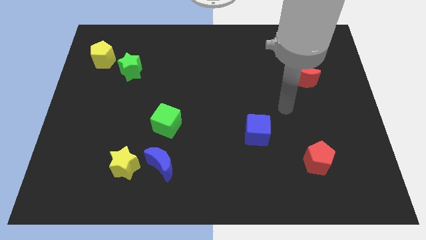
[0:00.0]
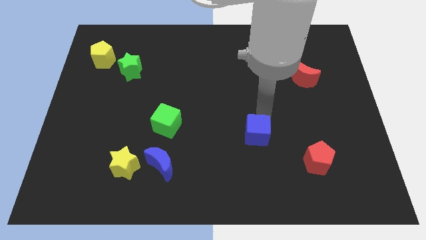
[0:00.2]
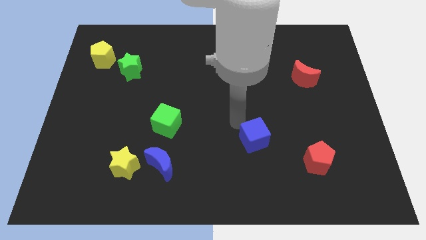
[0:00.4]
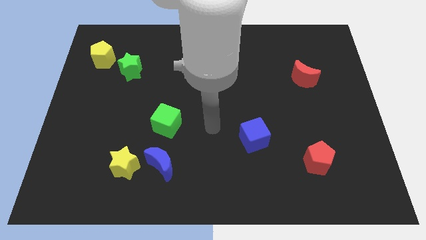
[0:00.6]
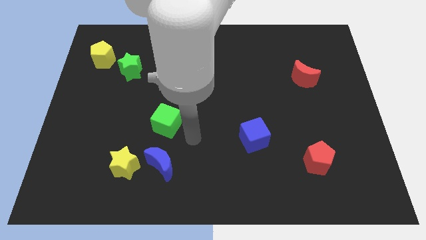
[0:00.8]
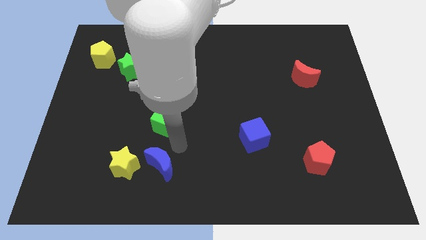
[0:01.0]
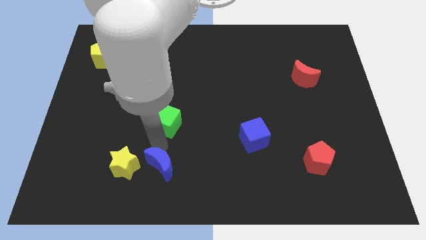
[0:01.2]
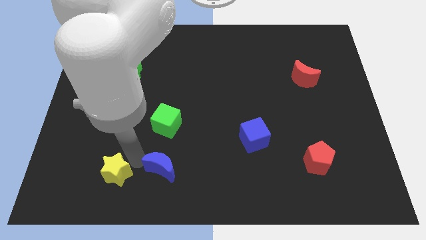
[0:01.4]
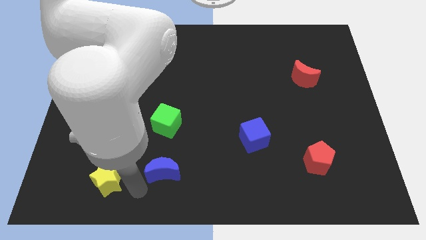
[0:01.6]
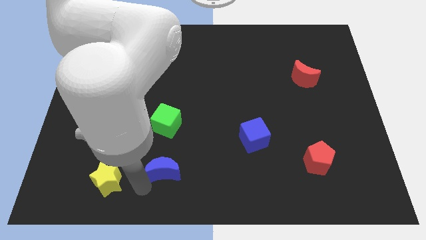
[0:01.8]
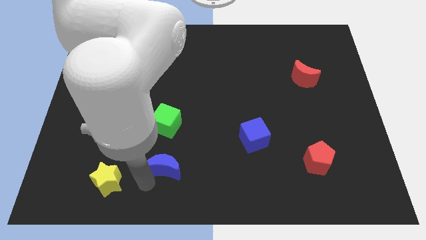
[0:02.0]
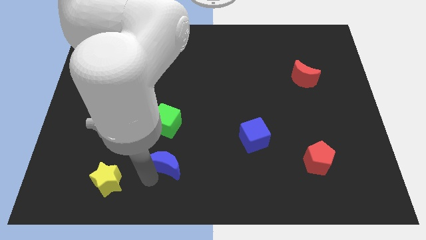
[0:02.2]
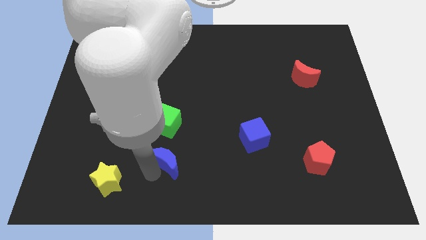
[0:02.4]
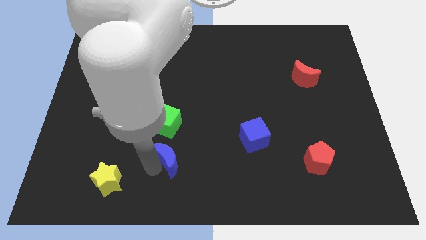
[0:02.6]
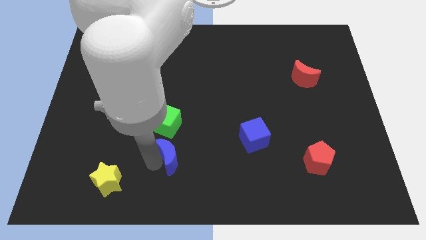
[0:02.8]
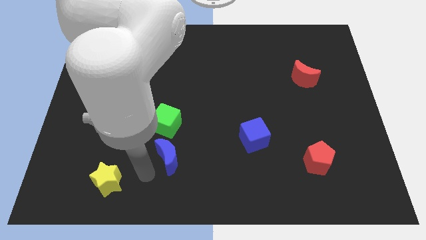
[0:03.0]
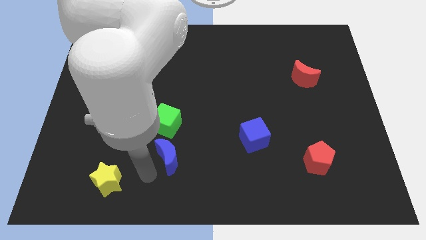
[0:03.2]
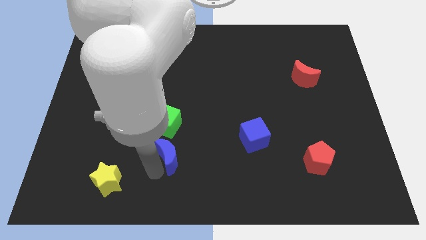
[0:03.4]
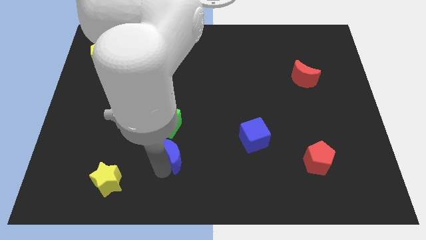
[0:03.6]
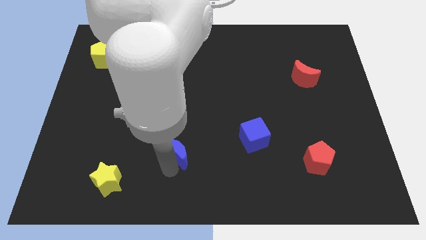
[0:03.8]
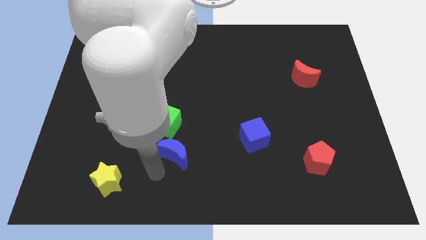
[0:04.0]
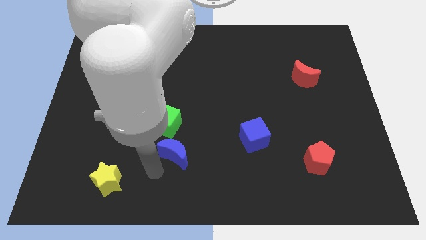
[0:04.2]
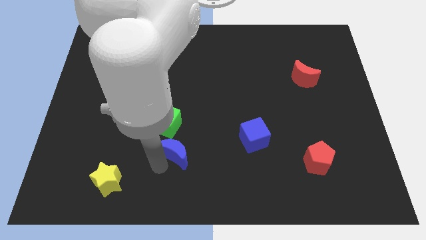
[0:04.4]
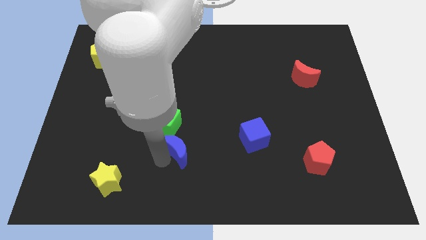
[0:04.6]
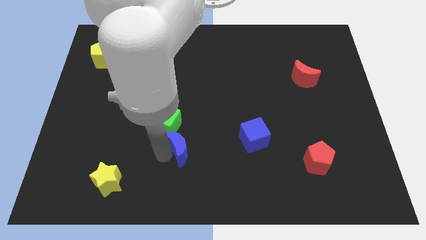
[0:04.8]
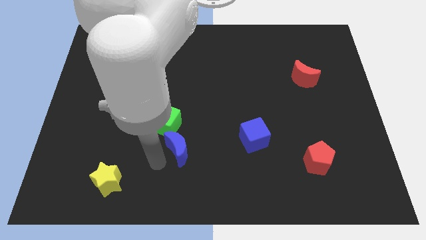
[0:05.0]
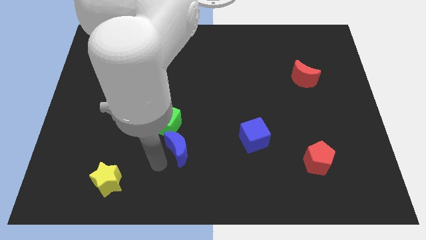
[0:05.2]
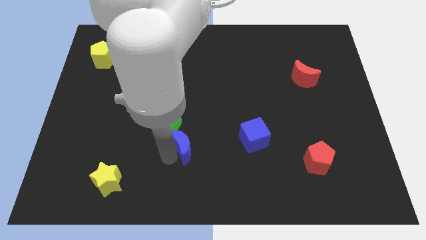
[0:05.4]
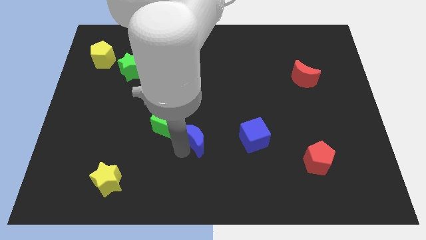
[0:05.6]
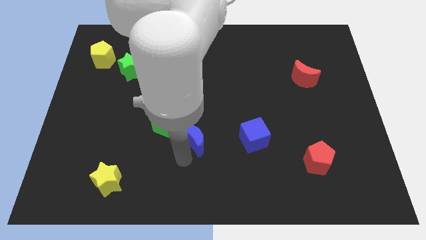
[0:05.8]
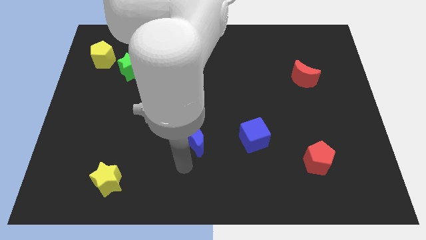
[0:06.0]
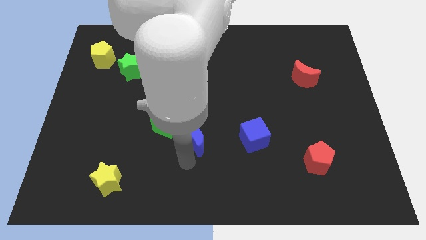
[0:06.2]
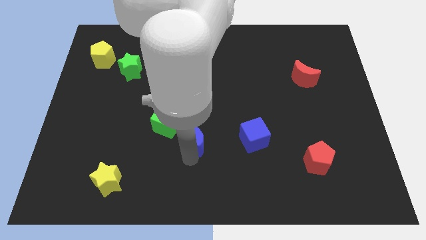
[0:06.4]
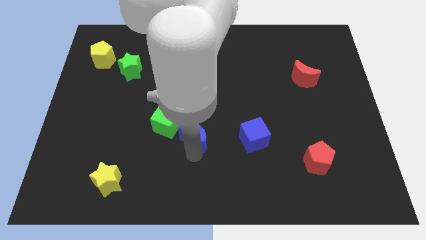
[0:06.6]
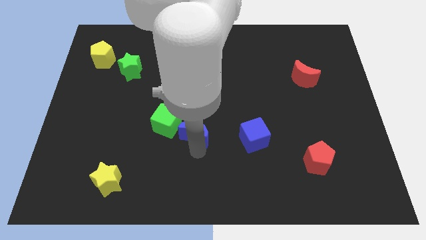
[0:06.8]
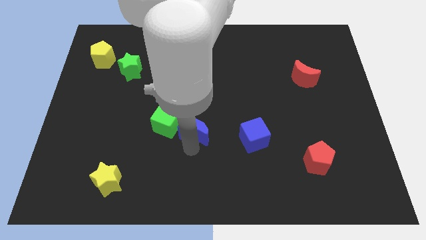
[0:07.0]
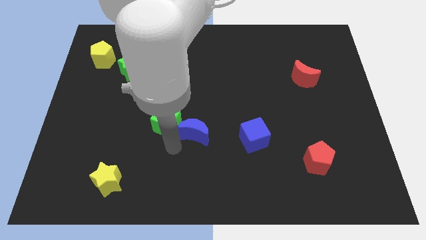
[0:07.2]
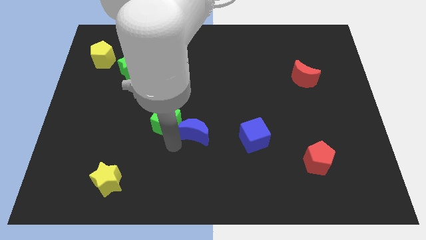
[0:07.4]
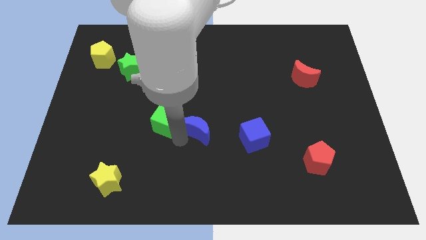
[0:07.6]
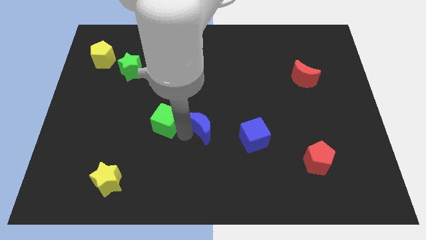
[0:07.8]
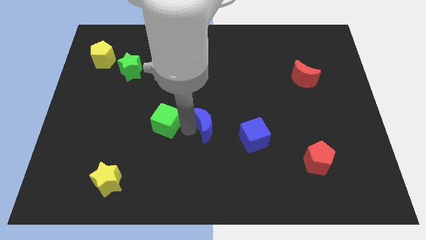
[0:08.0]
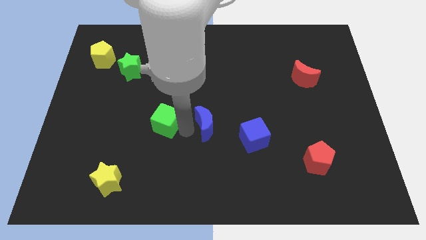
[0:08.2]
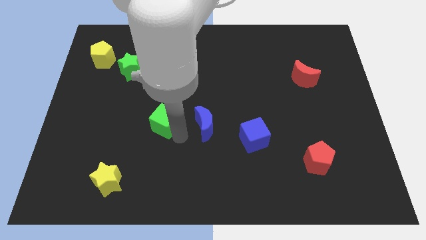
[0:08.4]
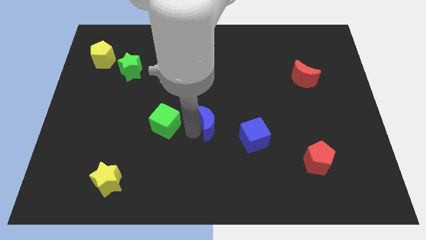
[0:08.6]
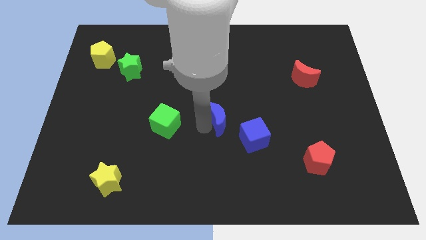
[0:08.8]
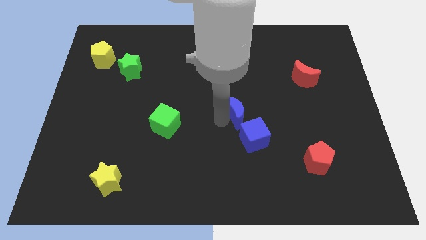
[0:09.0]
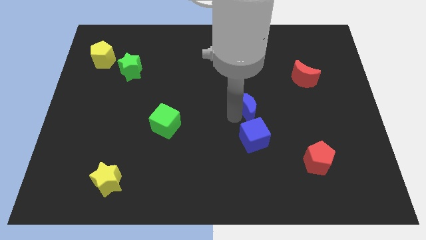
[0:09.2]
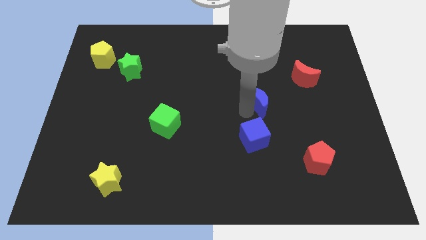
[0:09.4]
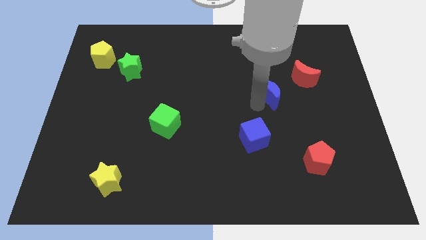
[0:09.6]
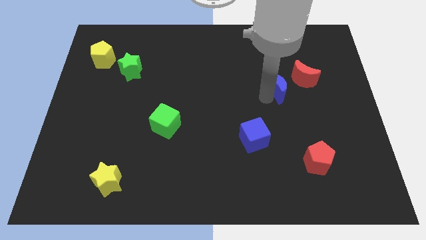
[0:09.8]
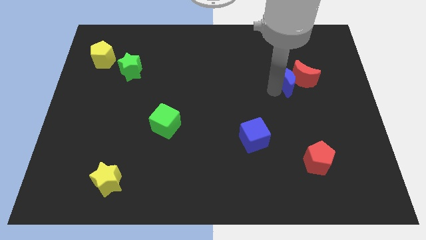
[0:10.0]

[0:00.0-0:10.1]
put the blue moon towards the red moon

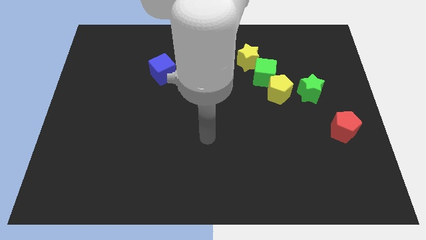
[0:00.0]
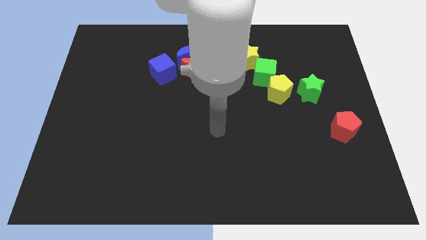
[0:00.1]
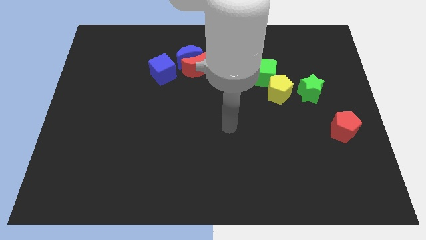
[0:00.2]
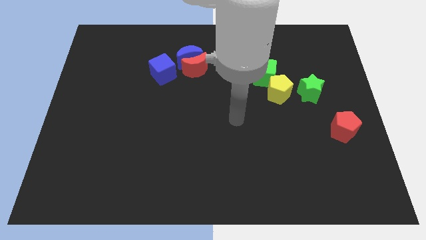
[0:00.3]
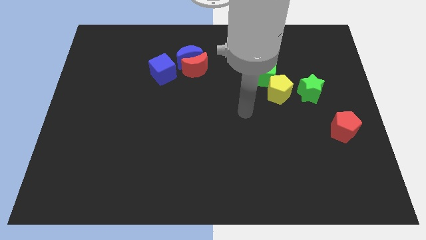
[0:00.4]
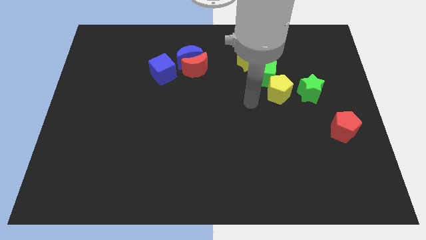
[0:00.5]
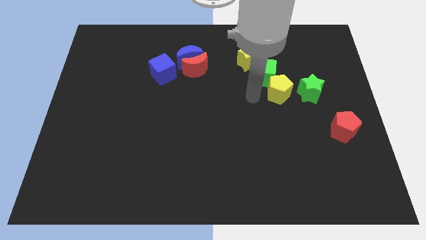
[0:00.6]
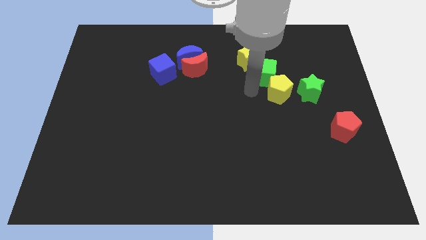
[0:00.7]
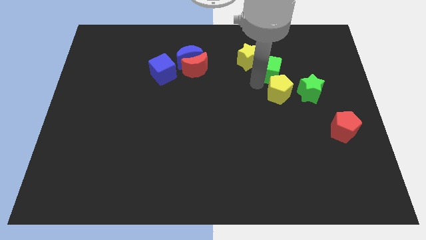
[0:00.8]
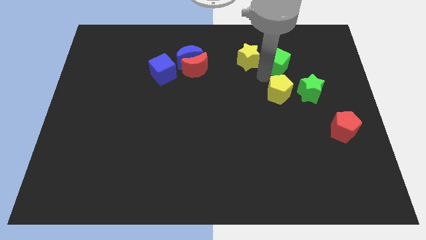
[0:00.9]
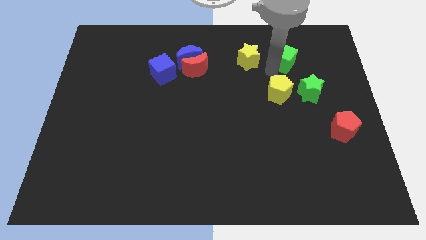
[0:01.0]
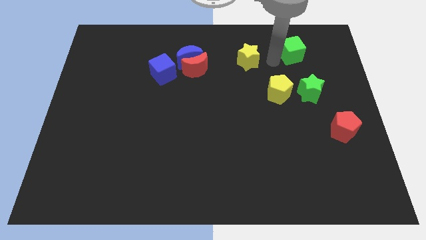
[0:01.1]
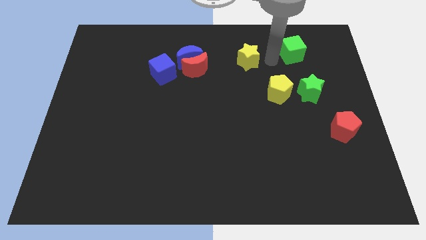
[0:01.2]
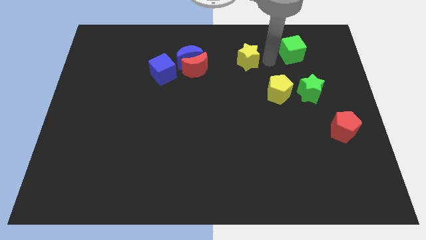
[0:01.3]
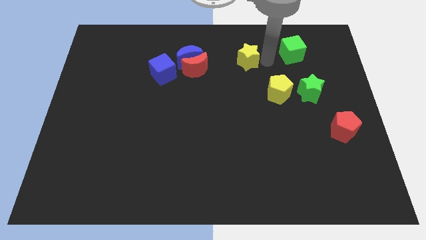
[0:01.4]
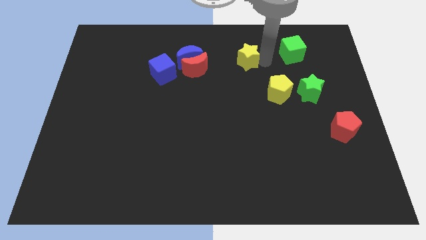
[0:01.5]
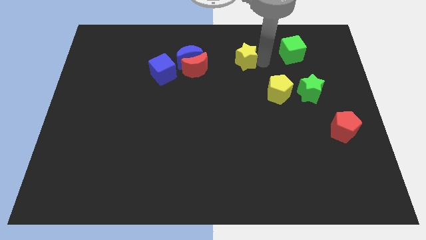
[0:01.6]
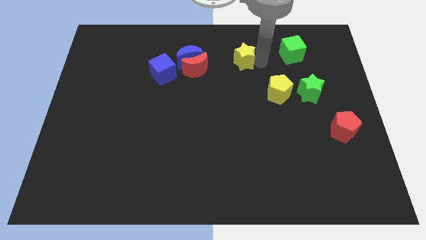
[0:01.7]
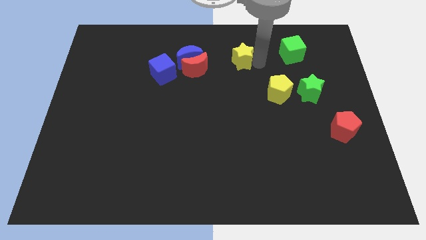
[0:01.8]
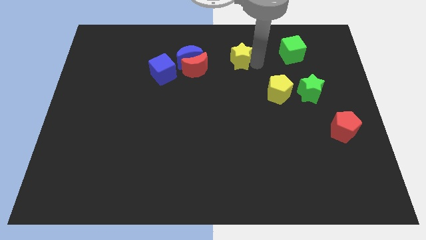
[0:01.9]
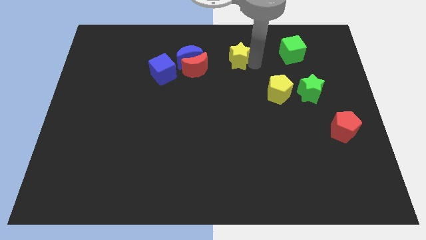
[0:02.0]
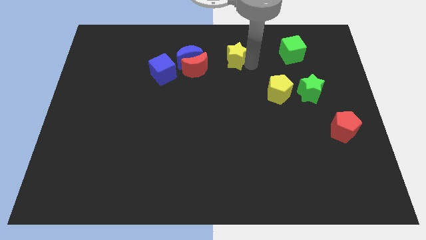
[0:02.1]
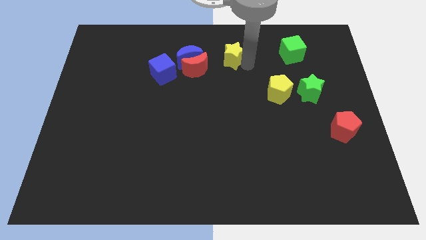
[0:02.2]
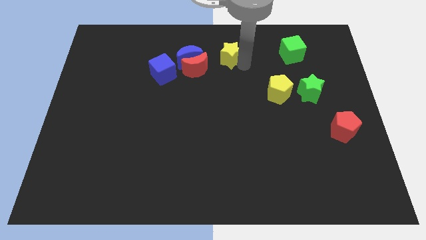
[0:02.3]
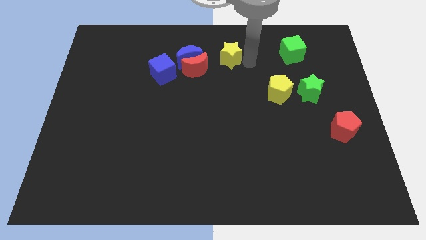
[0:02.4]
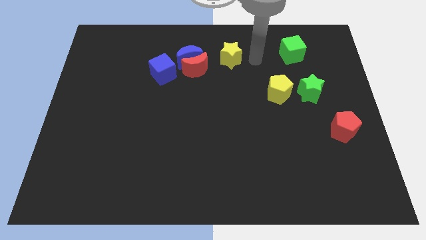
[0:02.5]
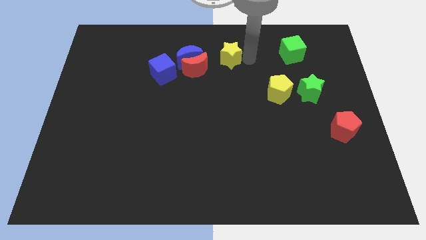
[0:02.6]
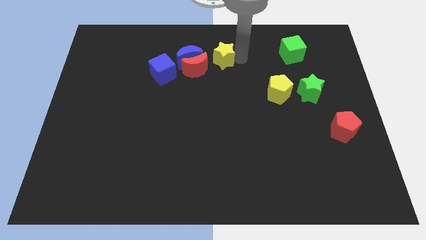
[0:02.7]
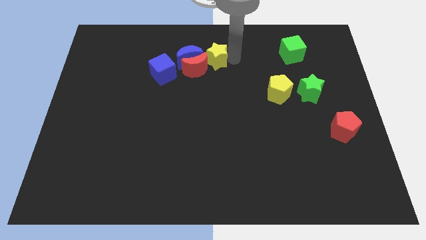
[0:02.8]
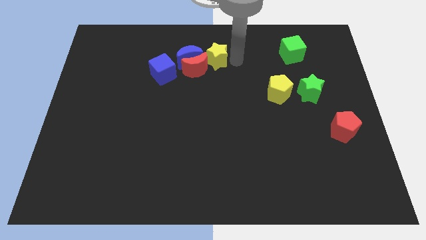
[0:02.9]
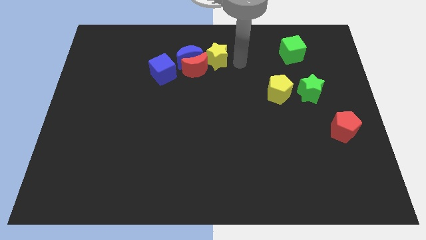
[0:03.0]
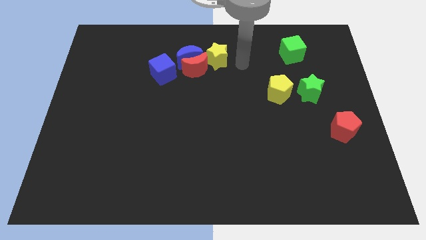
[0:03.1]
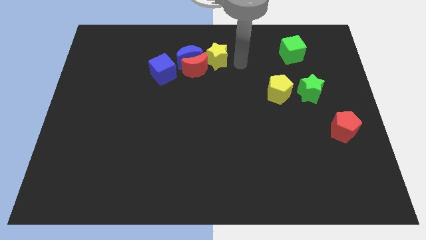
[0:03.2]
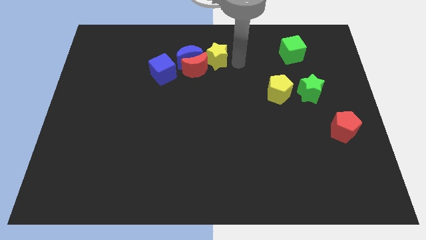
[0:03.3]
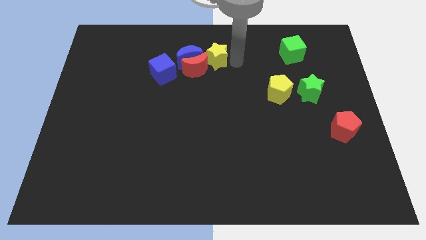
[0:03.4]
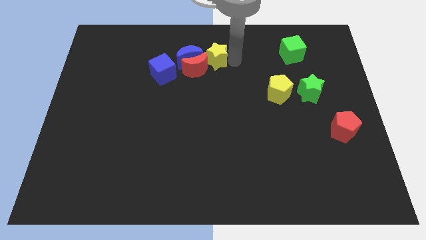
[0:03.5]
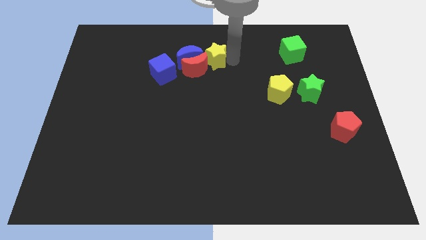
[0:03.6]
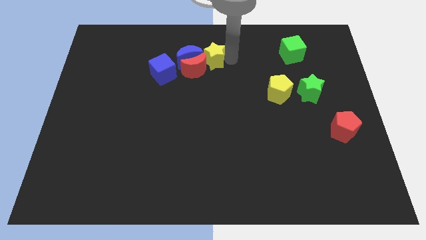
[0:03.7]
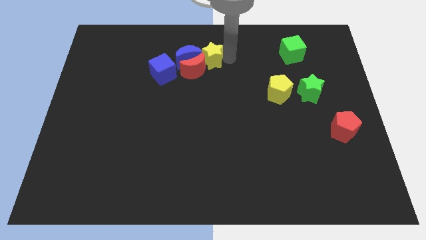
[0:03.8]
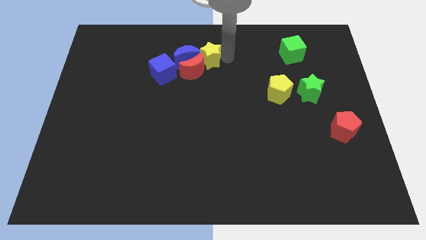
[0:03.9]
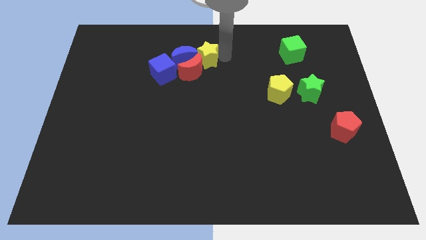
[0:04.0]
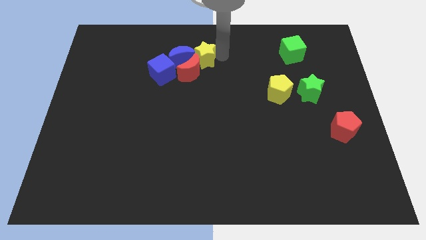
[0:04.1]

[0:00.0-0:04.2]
push the yellow star close to the blue moon
